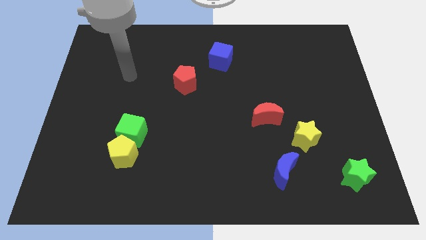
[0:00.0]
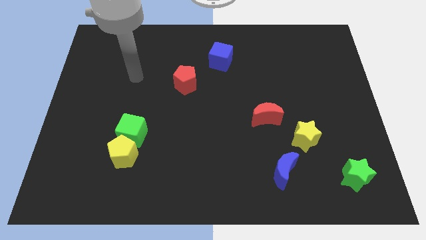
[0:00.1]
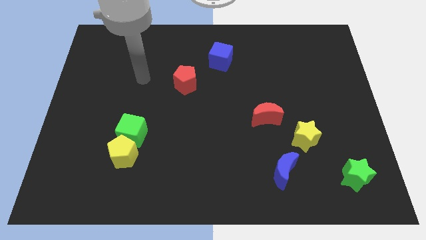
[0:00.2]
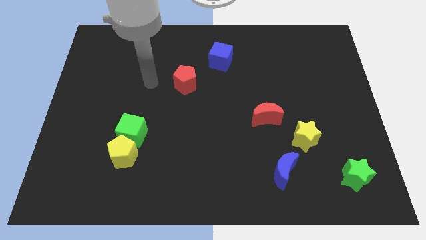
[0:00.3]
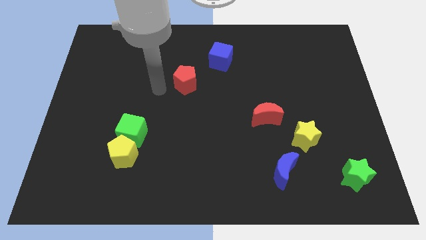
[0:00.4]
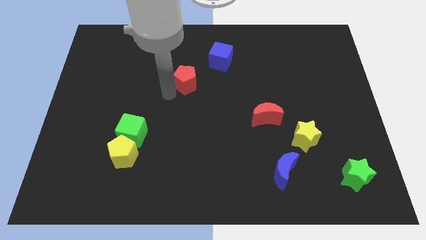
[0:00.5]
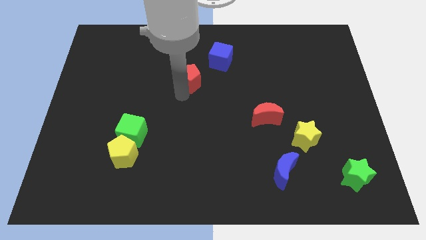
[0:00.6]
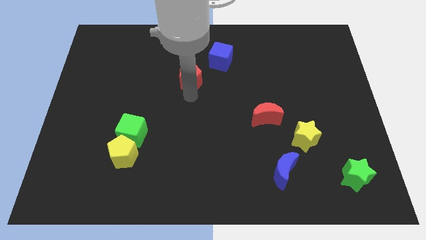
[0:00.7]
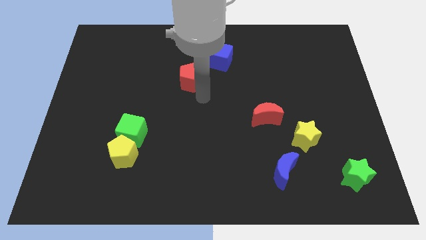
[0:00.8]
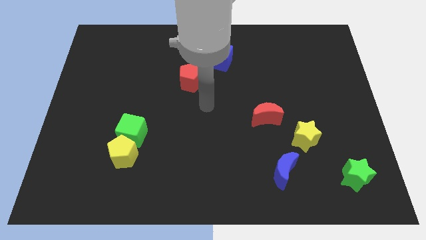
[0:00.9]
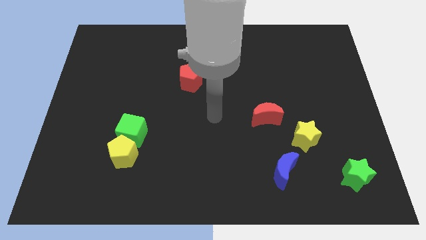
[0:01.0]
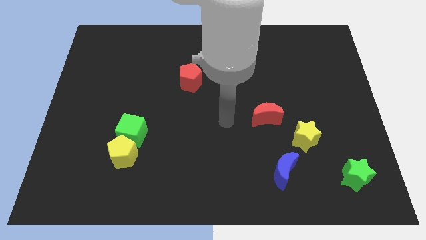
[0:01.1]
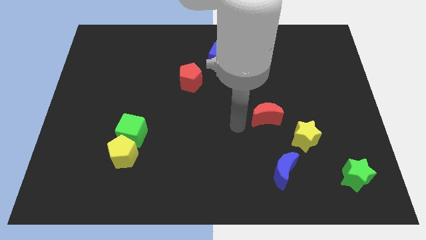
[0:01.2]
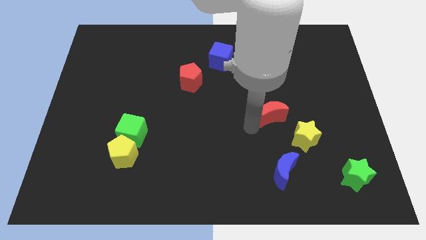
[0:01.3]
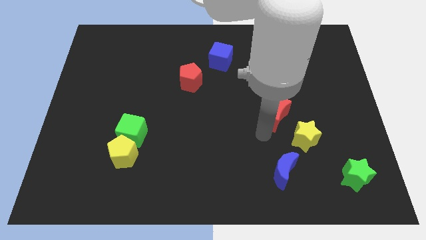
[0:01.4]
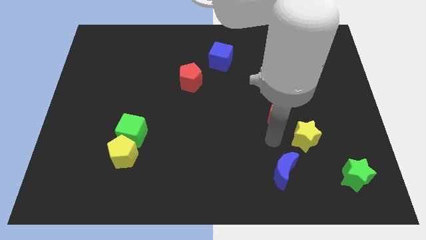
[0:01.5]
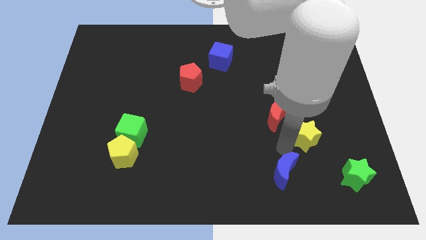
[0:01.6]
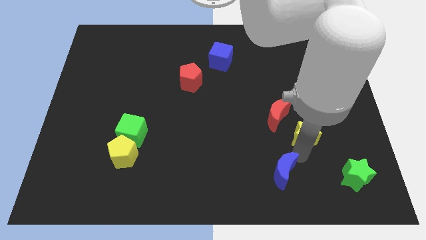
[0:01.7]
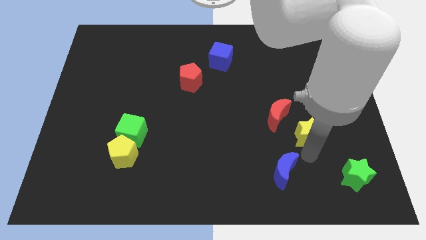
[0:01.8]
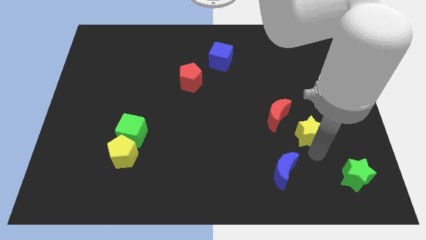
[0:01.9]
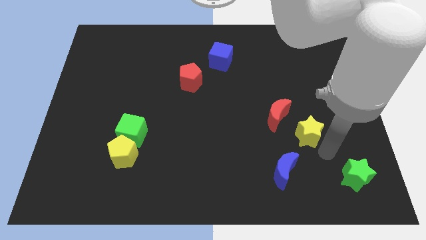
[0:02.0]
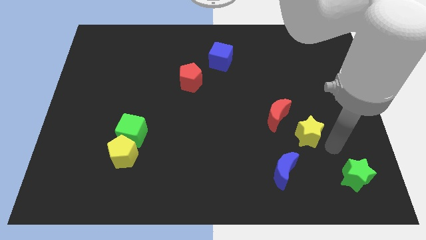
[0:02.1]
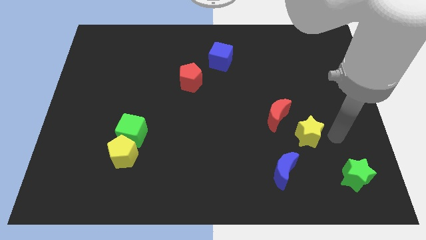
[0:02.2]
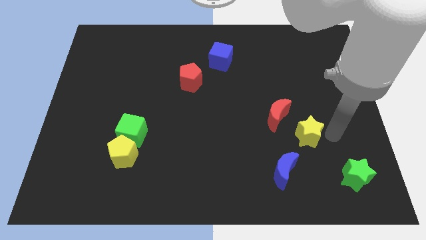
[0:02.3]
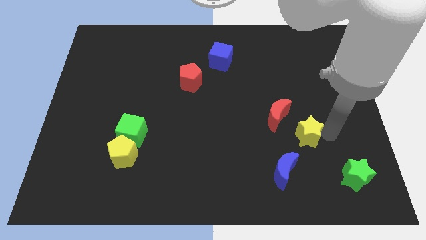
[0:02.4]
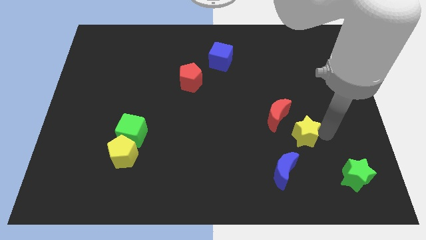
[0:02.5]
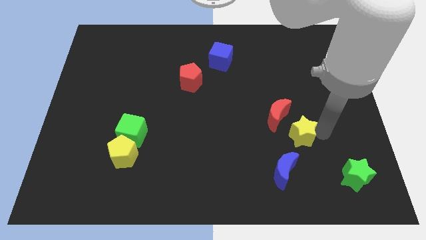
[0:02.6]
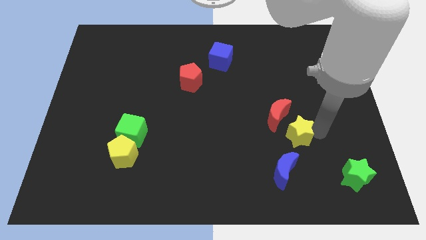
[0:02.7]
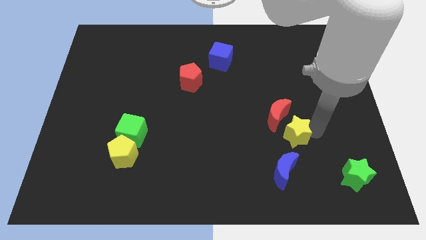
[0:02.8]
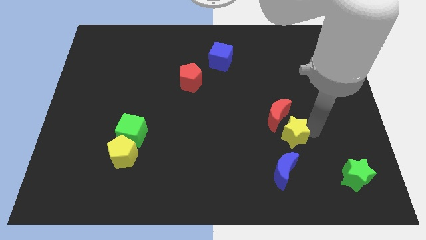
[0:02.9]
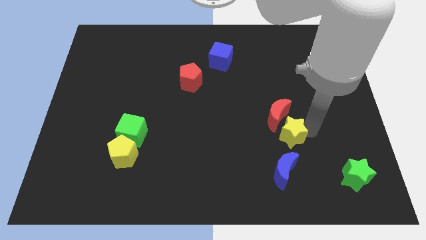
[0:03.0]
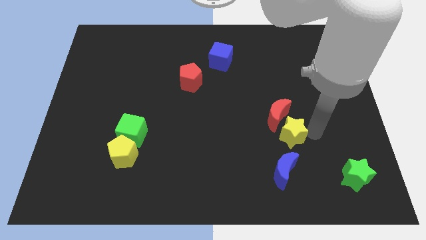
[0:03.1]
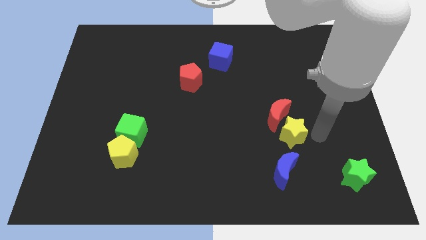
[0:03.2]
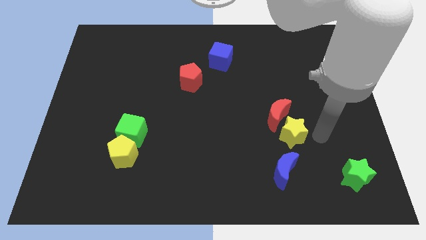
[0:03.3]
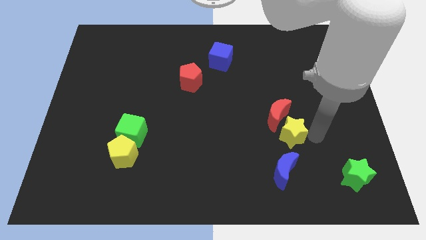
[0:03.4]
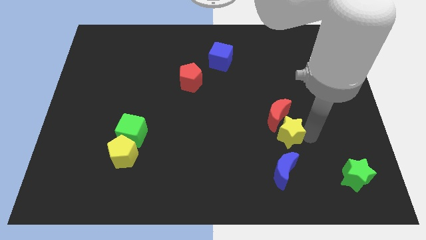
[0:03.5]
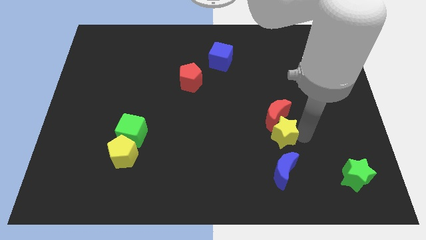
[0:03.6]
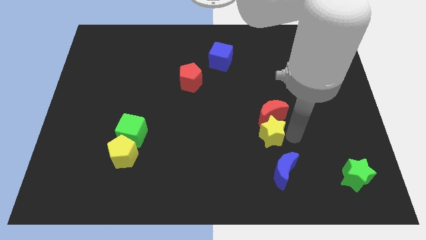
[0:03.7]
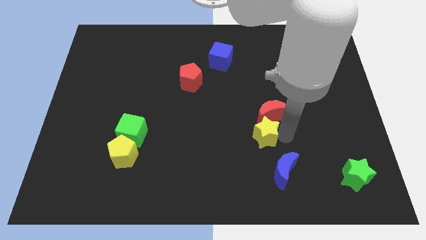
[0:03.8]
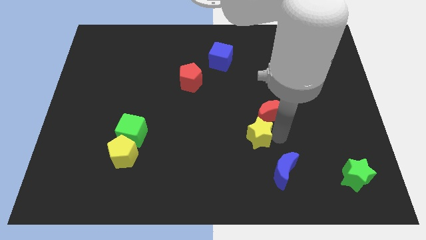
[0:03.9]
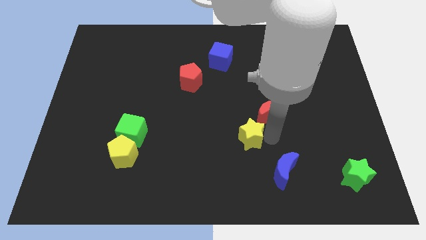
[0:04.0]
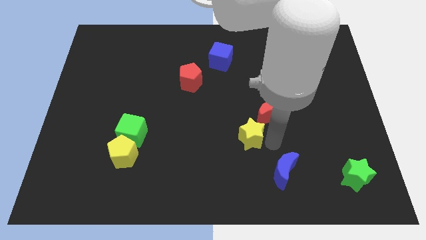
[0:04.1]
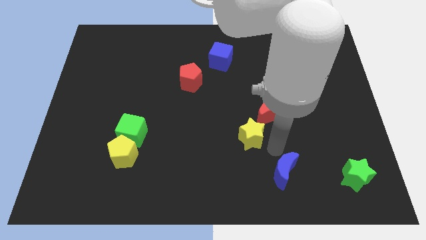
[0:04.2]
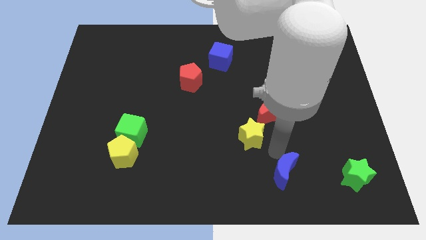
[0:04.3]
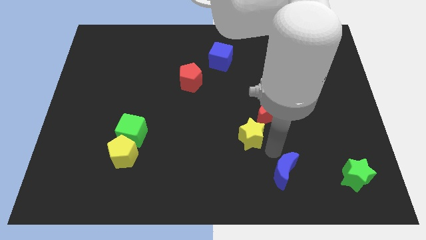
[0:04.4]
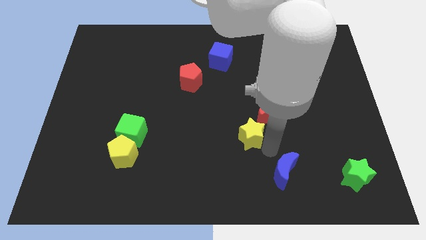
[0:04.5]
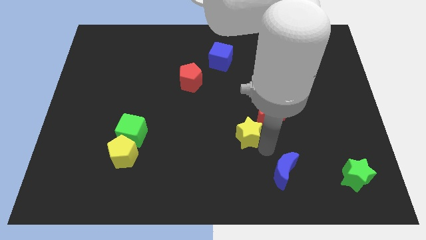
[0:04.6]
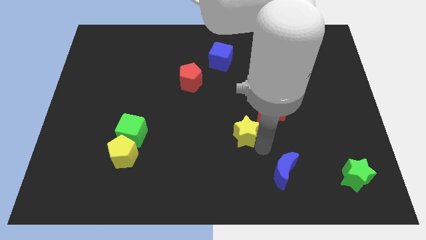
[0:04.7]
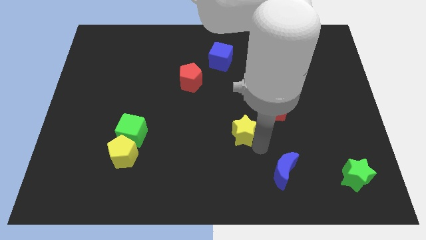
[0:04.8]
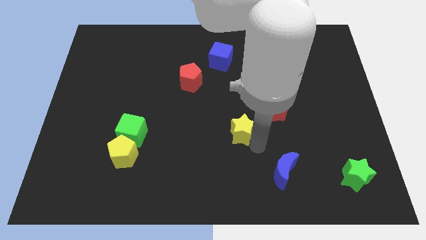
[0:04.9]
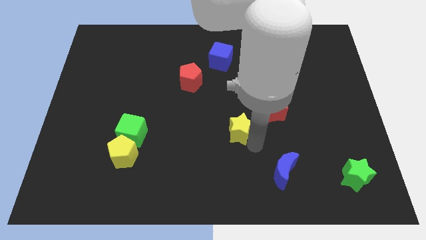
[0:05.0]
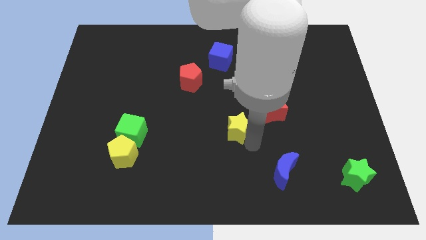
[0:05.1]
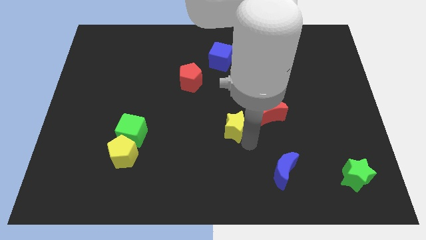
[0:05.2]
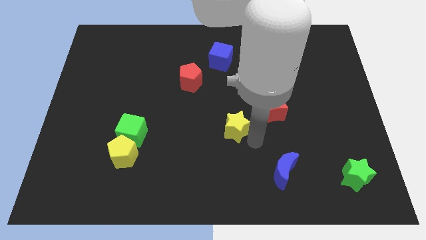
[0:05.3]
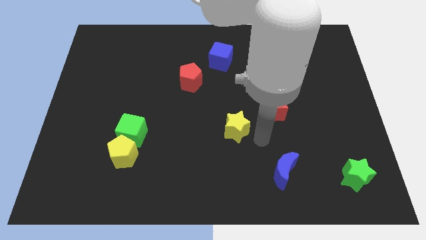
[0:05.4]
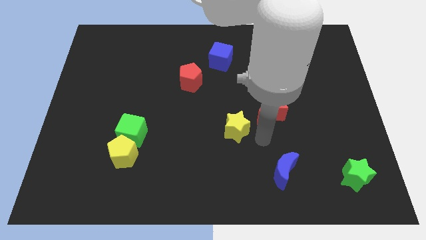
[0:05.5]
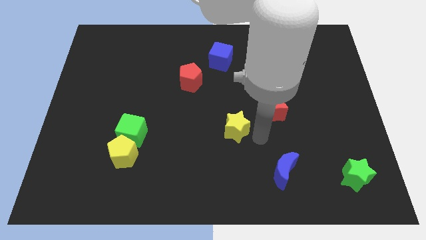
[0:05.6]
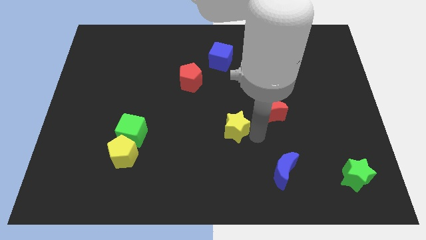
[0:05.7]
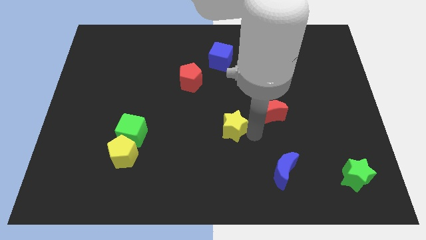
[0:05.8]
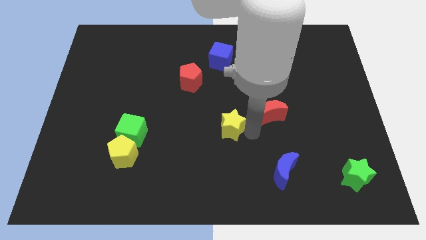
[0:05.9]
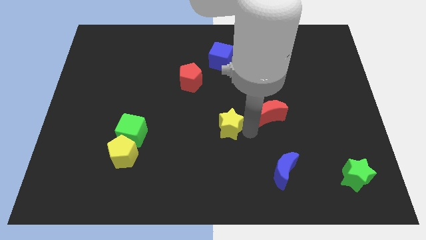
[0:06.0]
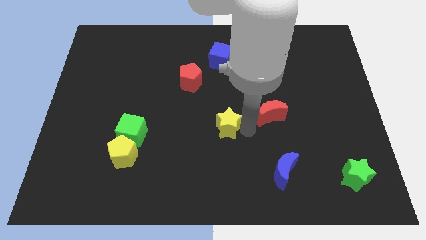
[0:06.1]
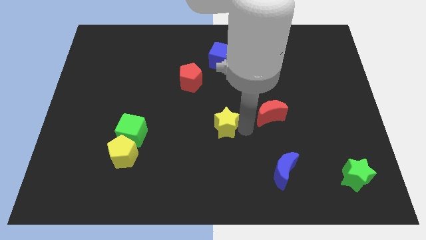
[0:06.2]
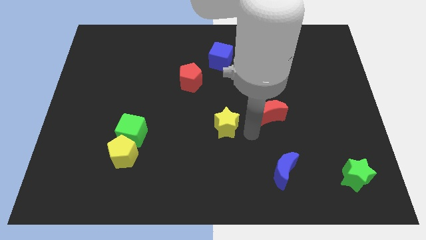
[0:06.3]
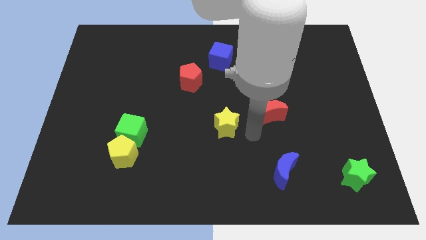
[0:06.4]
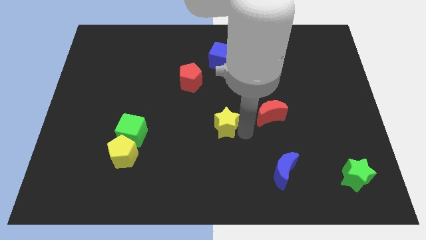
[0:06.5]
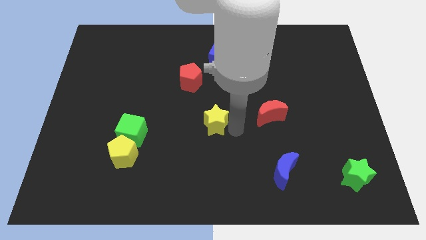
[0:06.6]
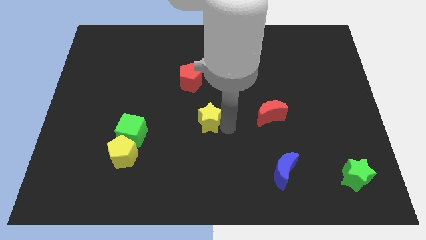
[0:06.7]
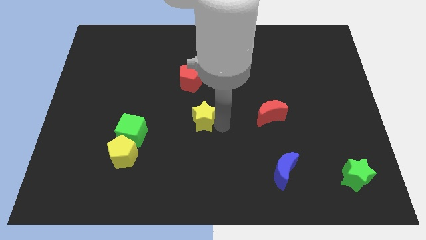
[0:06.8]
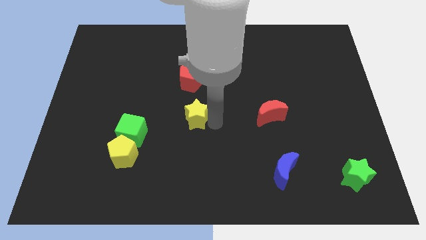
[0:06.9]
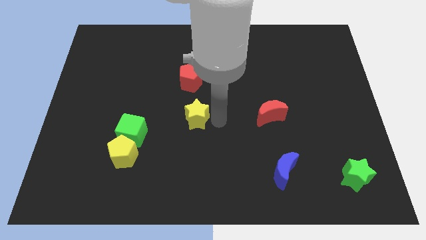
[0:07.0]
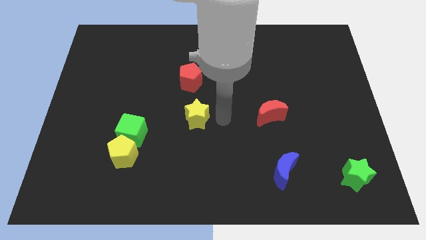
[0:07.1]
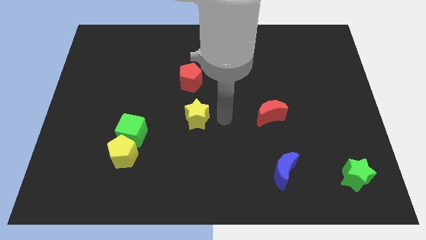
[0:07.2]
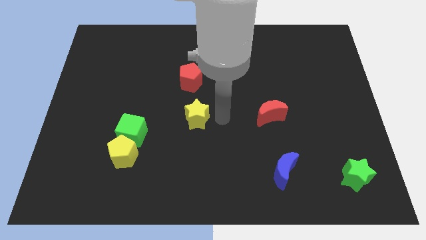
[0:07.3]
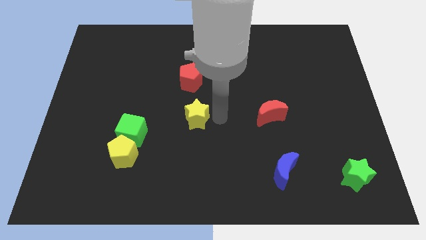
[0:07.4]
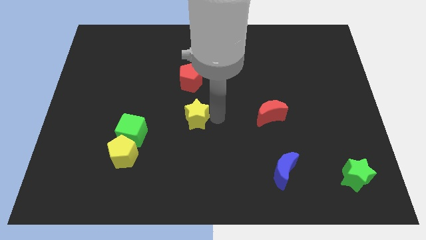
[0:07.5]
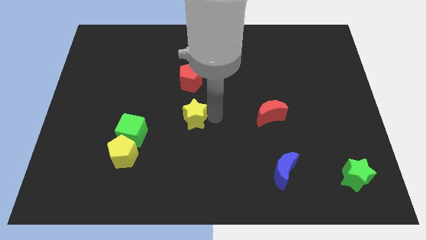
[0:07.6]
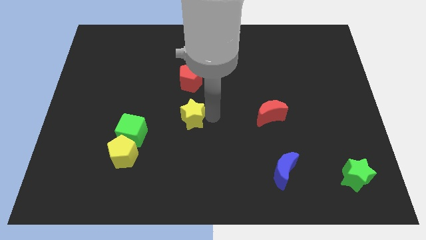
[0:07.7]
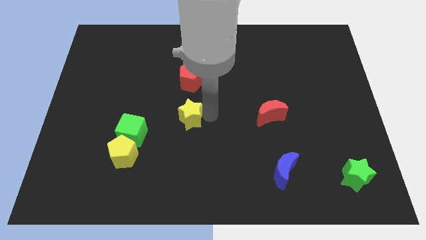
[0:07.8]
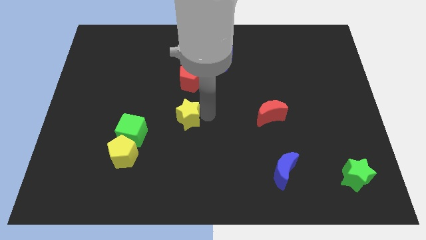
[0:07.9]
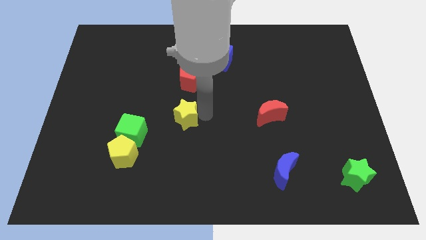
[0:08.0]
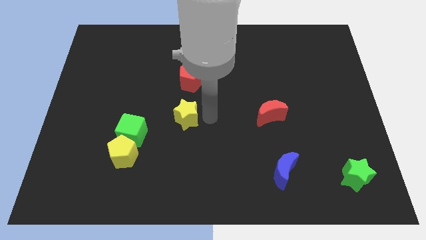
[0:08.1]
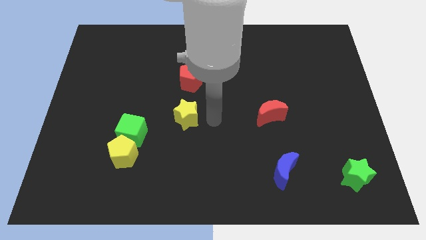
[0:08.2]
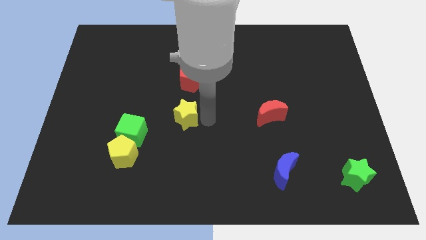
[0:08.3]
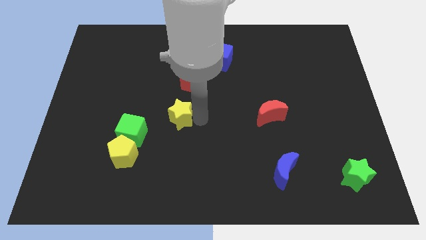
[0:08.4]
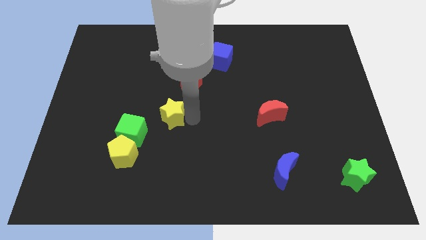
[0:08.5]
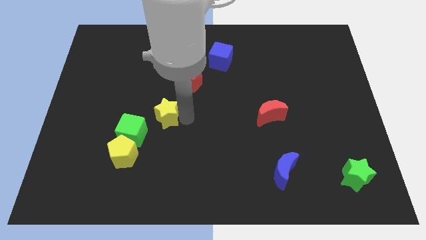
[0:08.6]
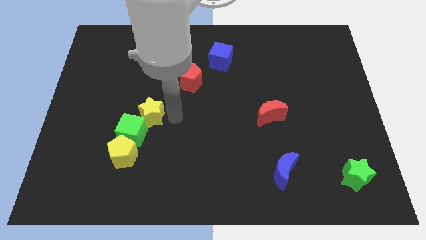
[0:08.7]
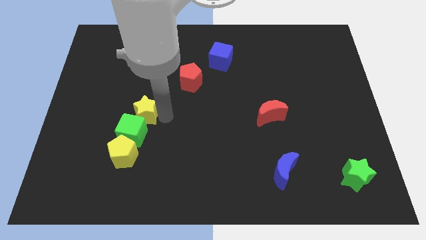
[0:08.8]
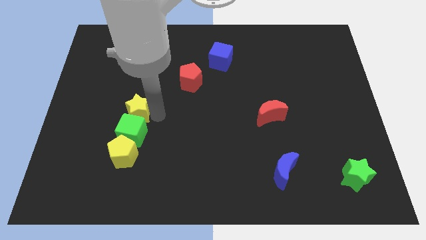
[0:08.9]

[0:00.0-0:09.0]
move the yellow star to the top left side of the green cube
